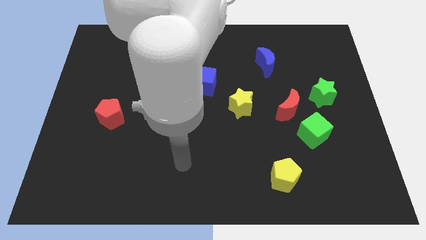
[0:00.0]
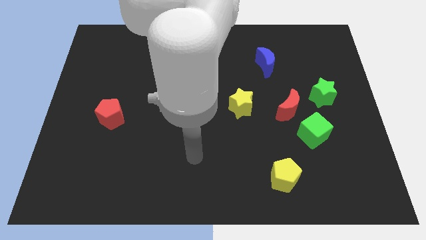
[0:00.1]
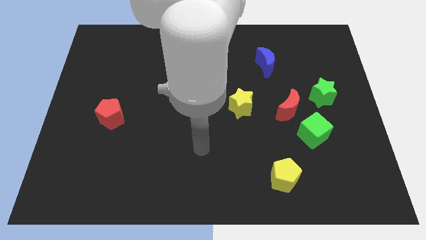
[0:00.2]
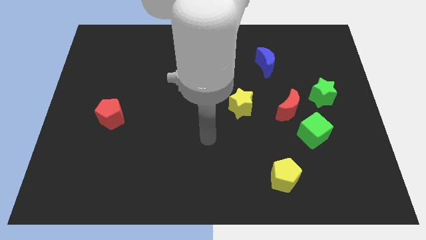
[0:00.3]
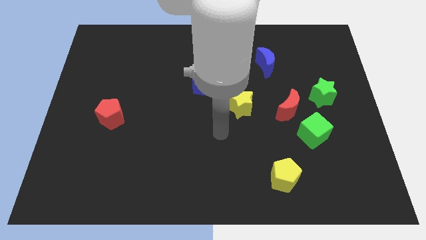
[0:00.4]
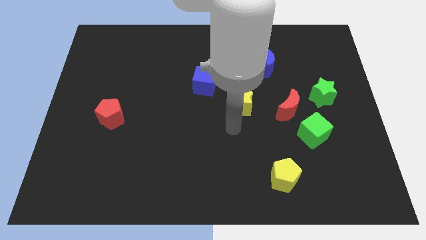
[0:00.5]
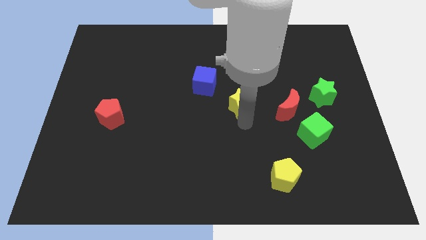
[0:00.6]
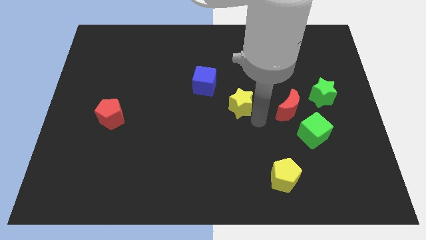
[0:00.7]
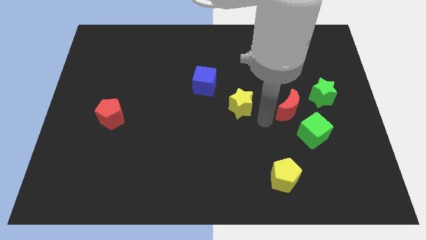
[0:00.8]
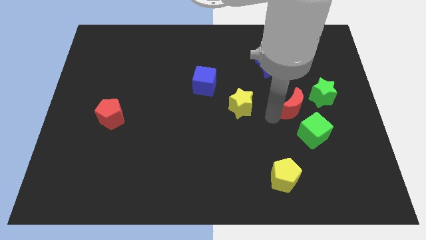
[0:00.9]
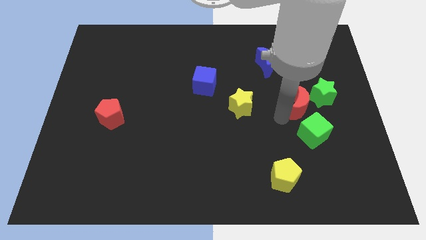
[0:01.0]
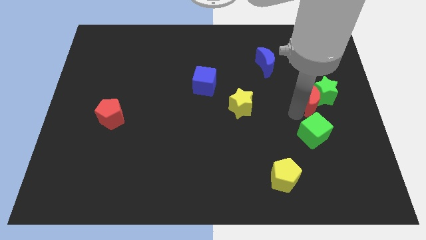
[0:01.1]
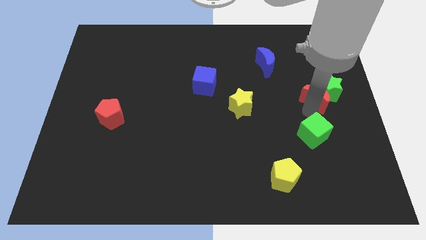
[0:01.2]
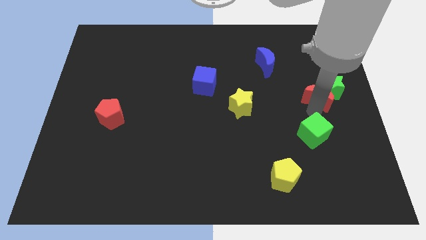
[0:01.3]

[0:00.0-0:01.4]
pull the green cube apart from the red moon

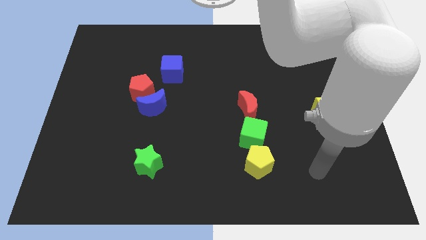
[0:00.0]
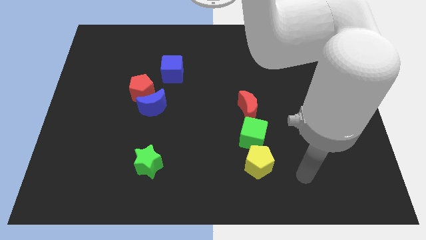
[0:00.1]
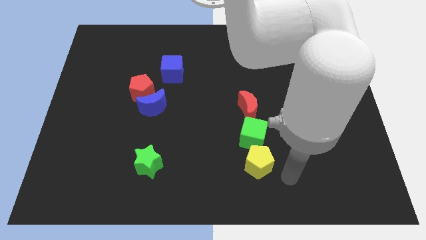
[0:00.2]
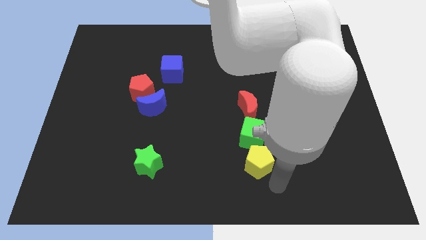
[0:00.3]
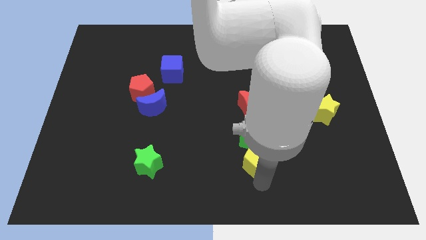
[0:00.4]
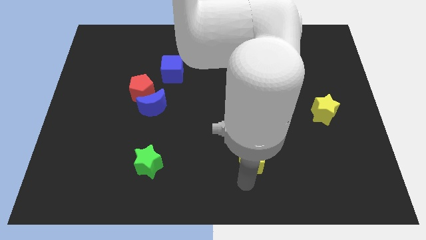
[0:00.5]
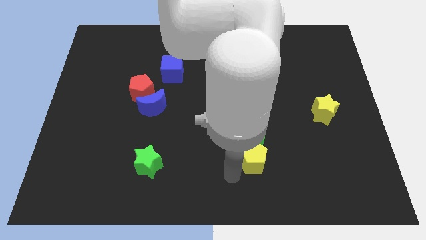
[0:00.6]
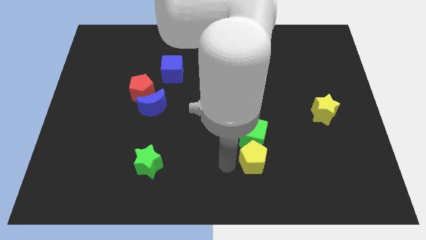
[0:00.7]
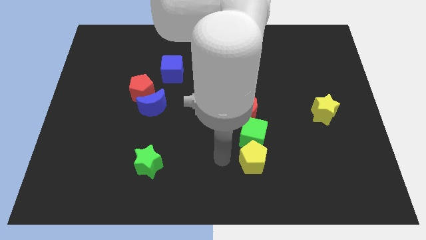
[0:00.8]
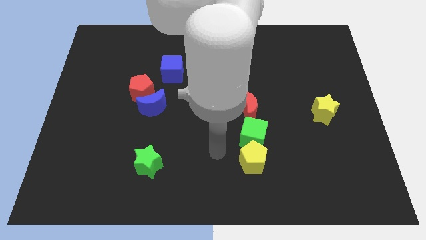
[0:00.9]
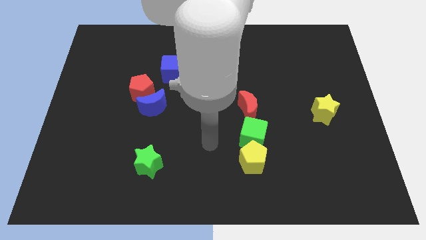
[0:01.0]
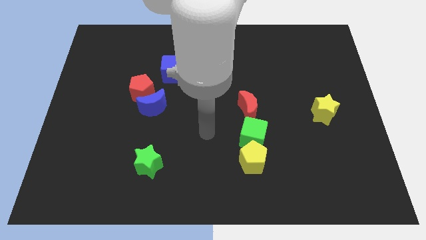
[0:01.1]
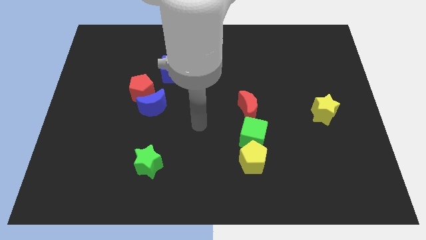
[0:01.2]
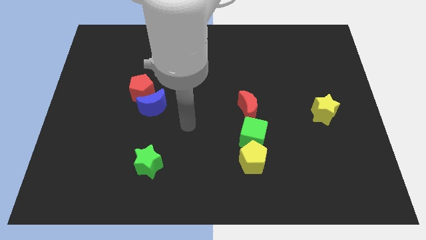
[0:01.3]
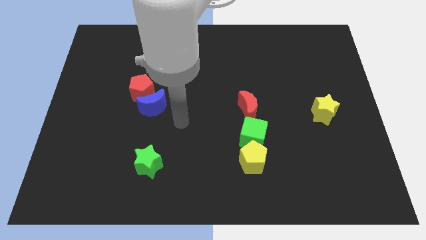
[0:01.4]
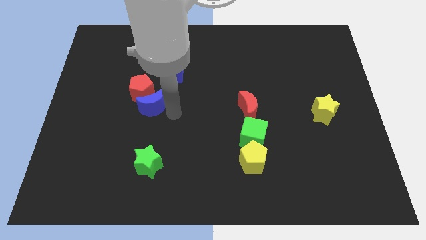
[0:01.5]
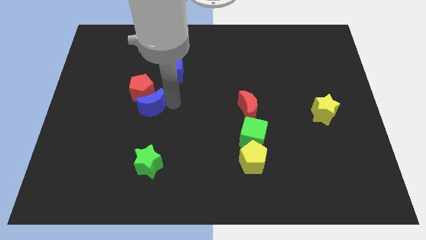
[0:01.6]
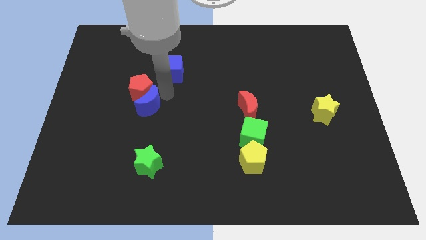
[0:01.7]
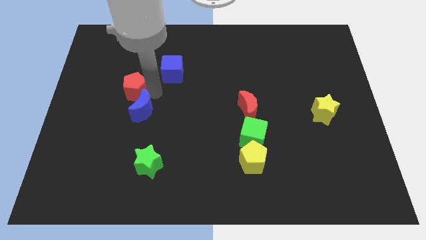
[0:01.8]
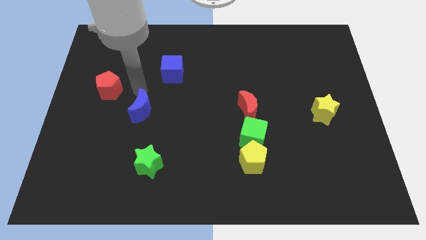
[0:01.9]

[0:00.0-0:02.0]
pull the blue moon apart from the red pentagon

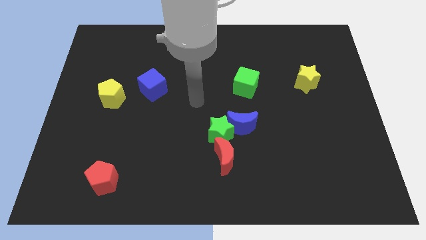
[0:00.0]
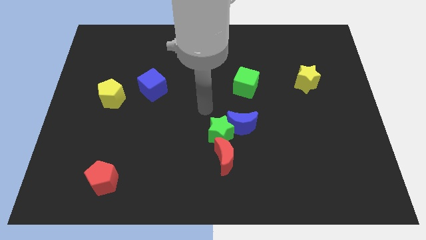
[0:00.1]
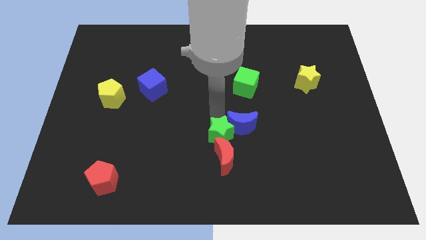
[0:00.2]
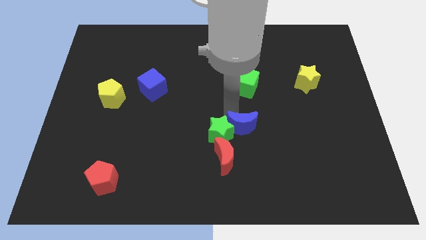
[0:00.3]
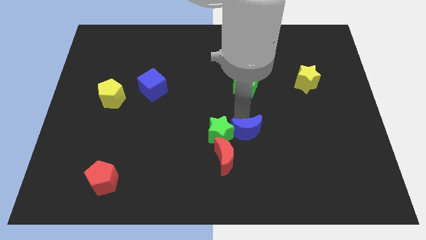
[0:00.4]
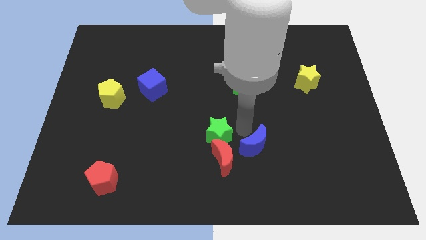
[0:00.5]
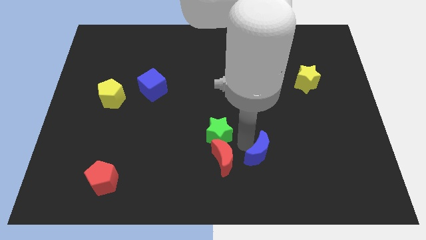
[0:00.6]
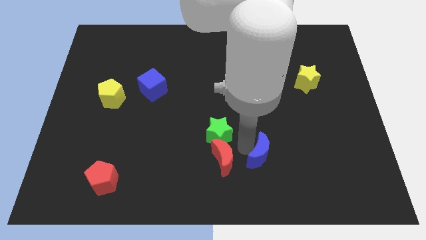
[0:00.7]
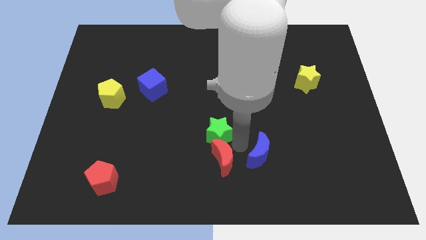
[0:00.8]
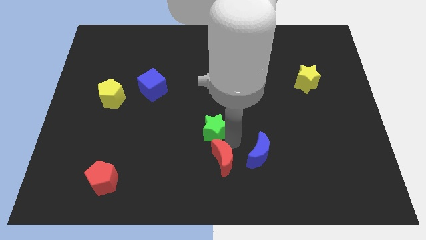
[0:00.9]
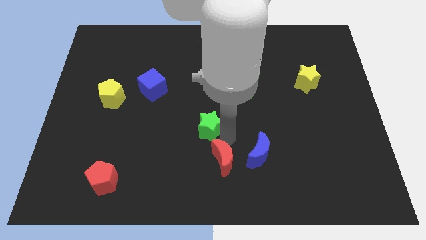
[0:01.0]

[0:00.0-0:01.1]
pull the green star apart from the blue moon and red moon

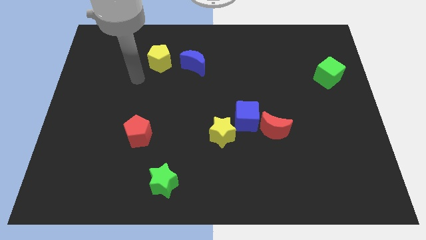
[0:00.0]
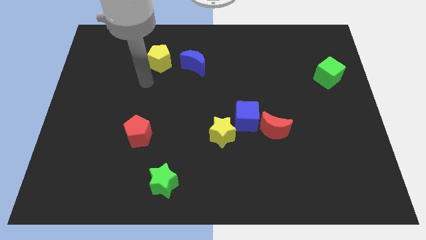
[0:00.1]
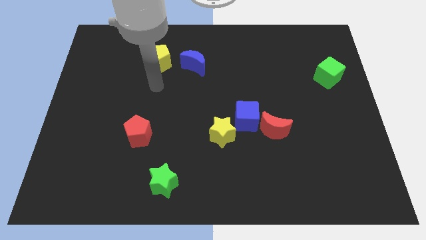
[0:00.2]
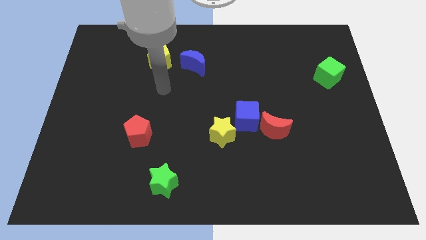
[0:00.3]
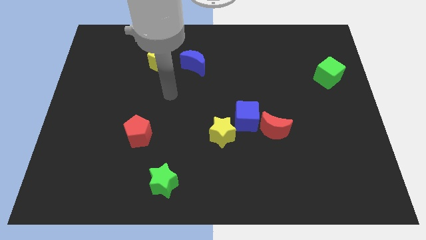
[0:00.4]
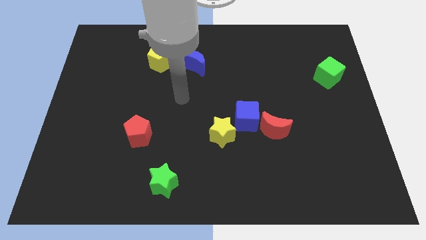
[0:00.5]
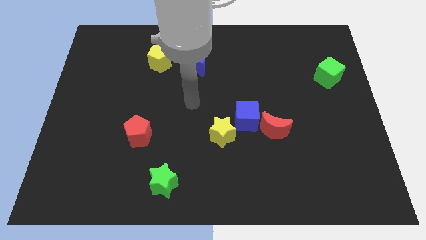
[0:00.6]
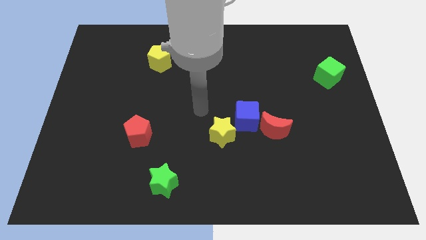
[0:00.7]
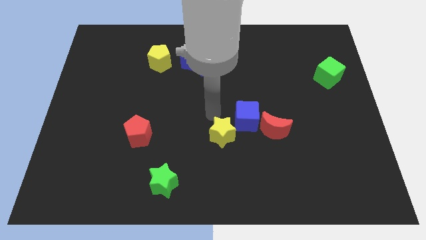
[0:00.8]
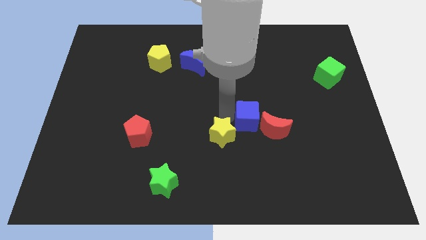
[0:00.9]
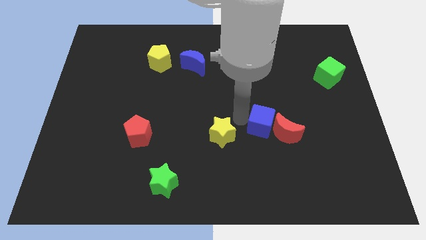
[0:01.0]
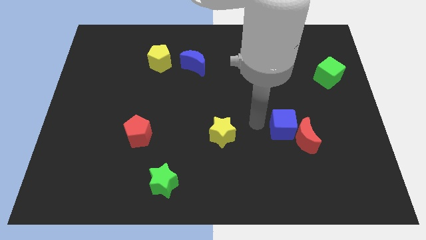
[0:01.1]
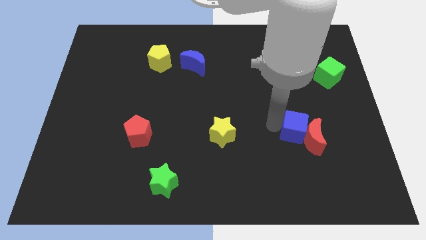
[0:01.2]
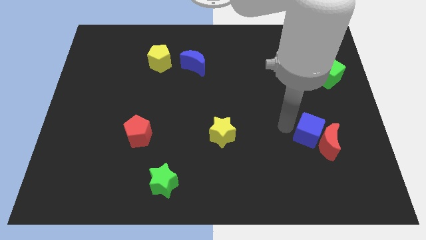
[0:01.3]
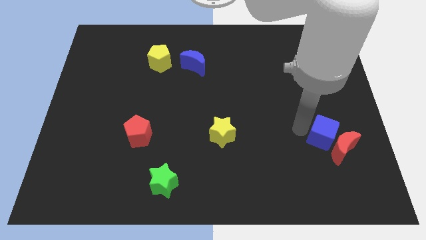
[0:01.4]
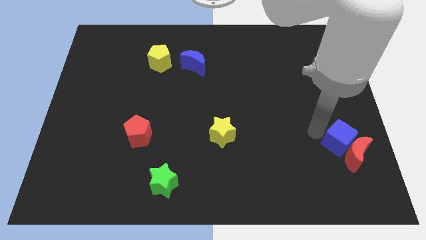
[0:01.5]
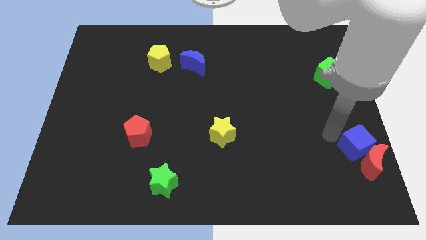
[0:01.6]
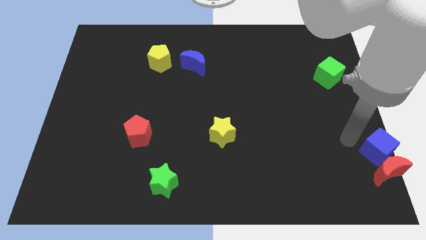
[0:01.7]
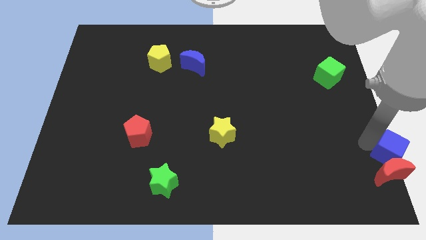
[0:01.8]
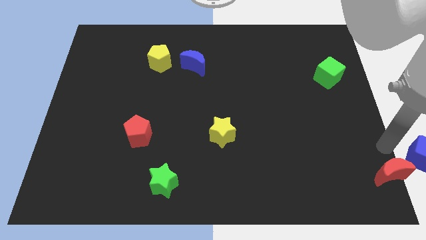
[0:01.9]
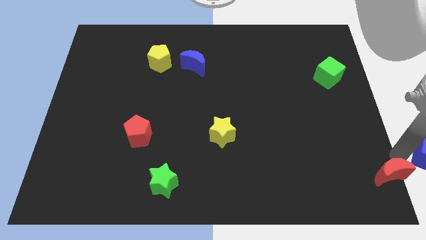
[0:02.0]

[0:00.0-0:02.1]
pull the red moon apart from the blue cube

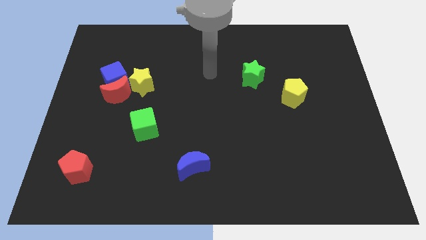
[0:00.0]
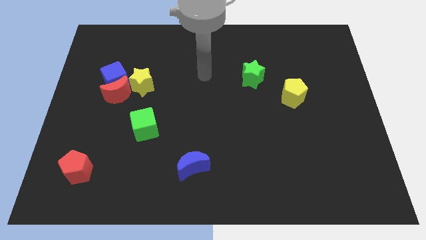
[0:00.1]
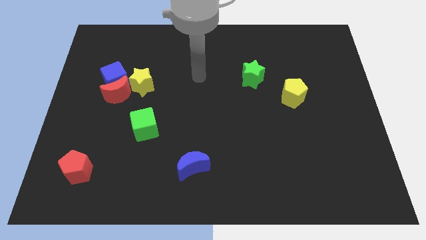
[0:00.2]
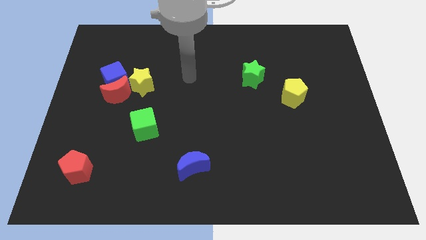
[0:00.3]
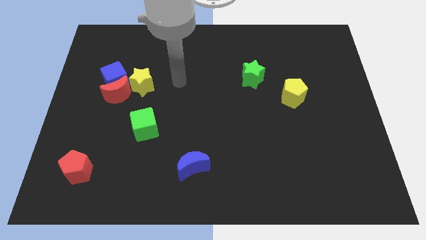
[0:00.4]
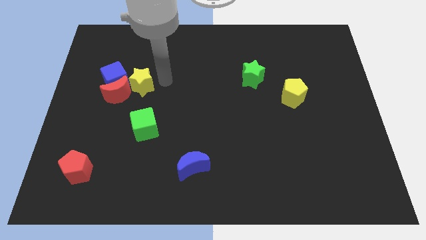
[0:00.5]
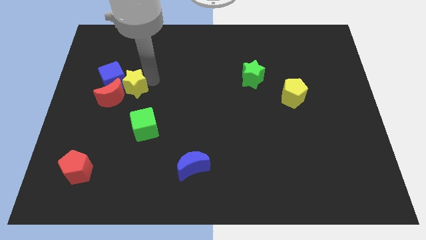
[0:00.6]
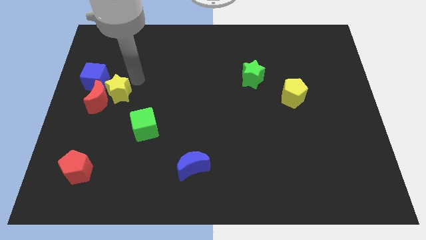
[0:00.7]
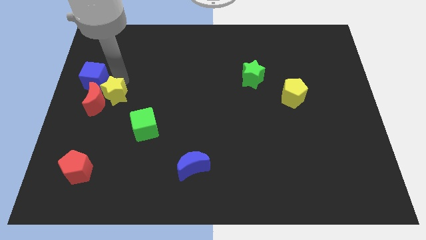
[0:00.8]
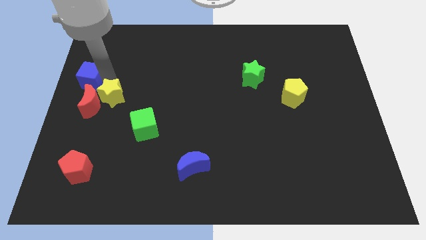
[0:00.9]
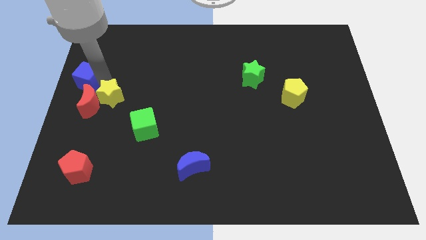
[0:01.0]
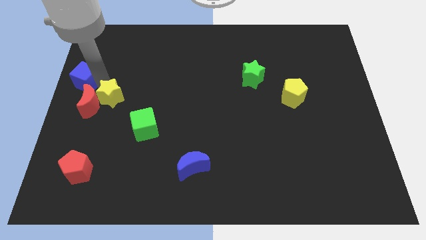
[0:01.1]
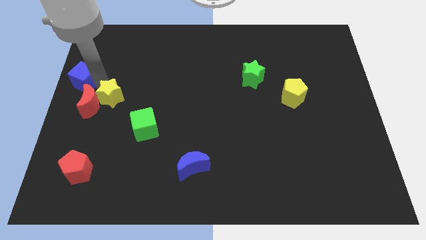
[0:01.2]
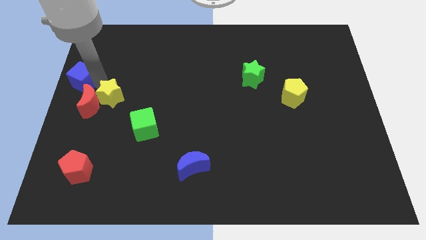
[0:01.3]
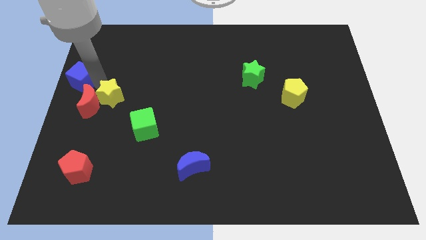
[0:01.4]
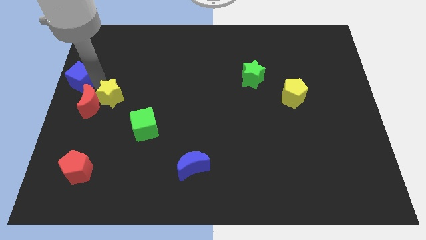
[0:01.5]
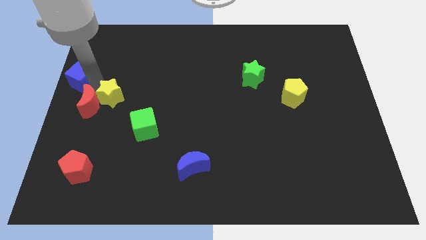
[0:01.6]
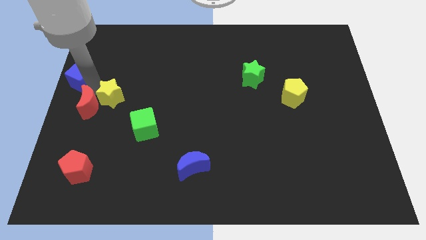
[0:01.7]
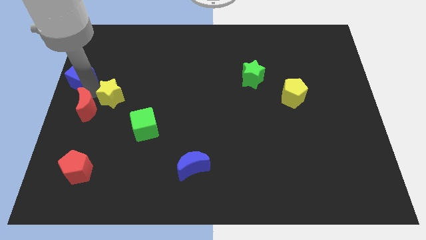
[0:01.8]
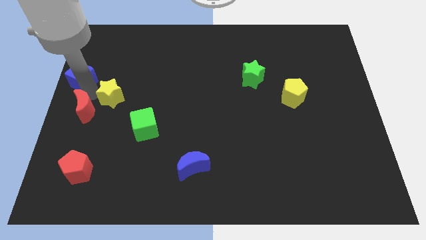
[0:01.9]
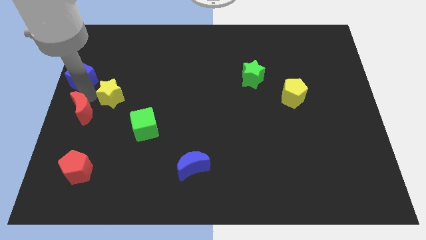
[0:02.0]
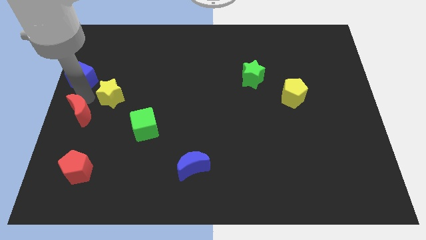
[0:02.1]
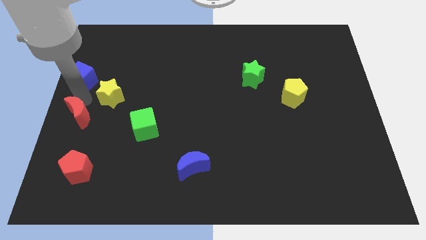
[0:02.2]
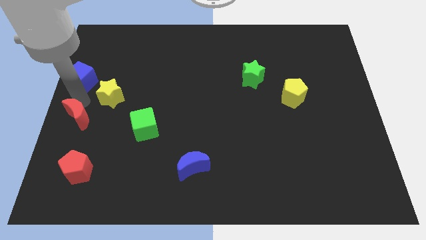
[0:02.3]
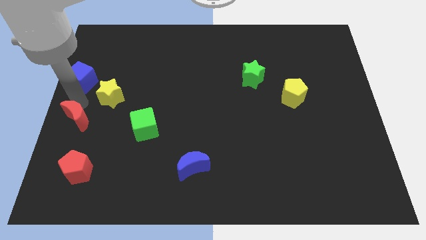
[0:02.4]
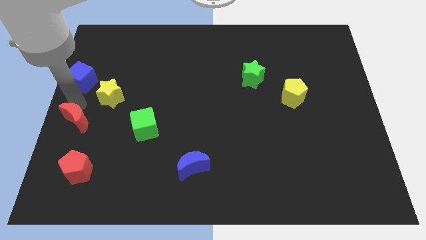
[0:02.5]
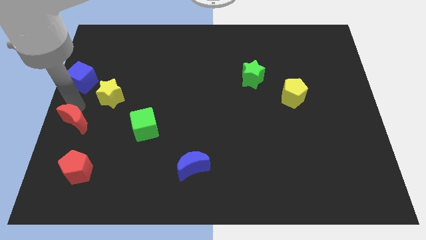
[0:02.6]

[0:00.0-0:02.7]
separate the red moon from the blue cube and yellow star
